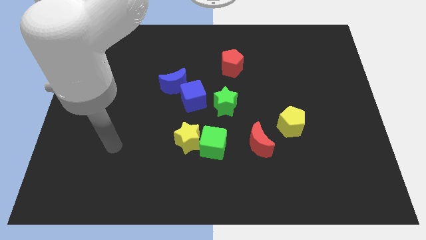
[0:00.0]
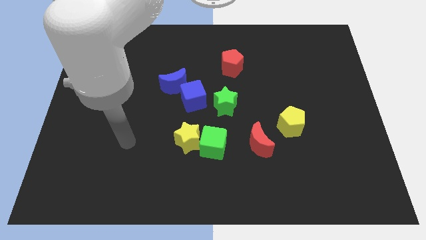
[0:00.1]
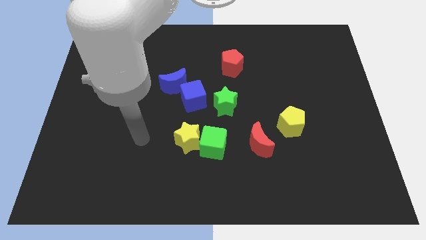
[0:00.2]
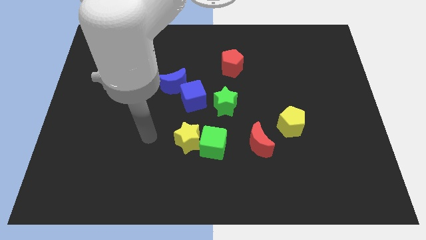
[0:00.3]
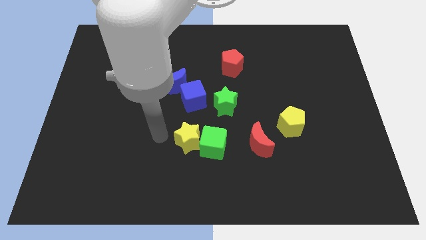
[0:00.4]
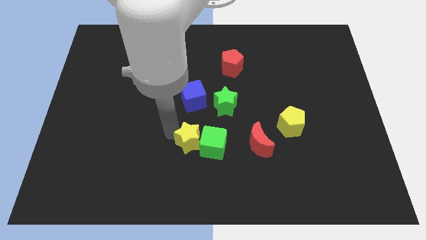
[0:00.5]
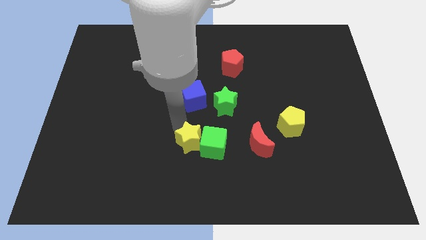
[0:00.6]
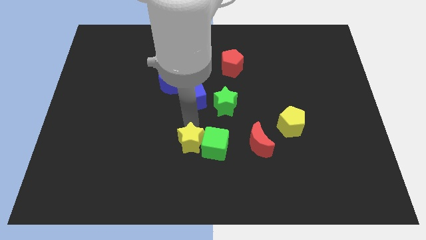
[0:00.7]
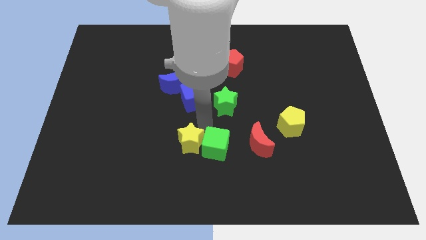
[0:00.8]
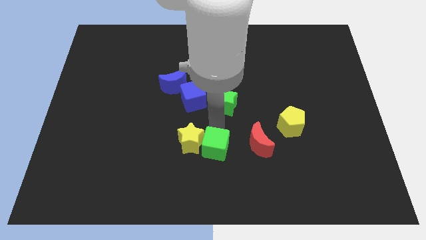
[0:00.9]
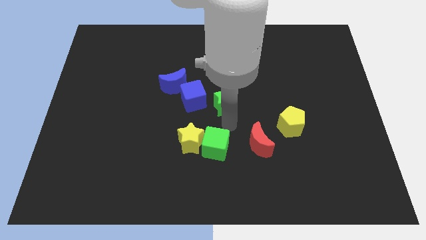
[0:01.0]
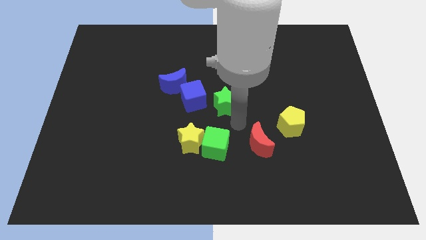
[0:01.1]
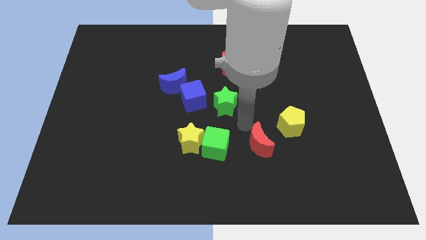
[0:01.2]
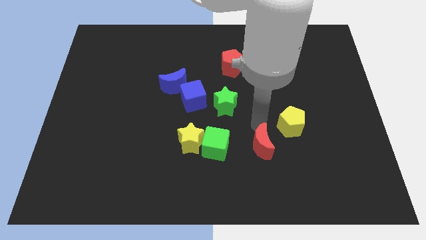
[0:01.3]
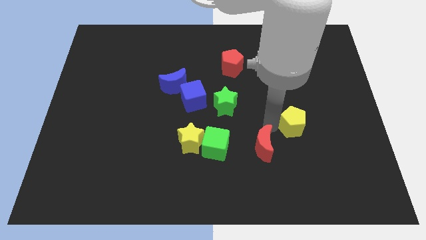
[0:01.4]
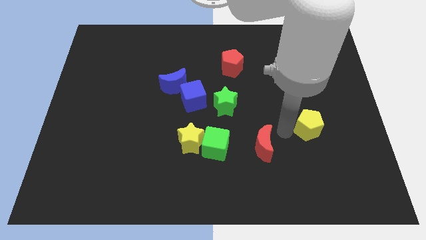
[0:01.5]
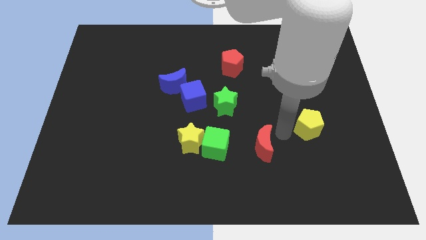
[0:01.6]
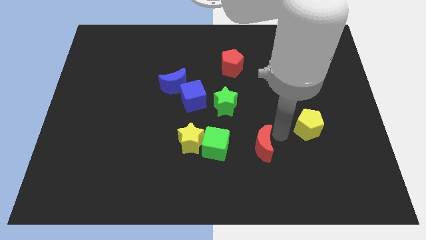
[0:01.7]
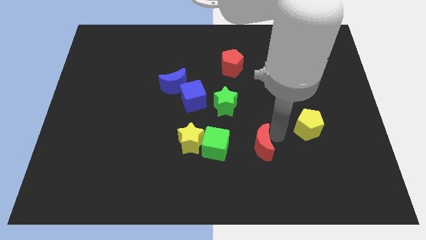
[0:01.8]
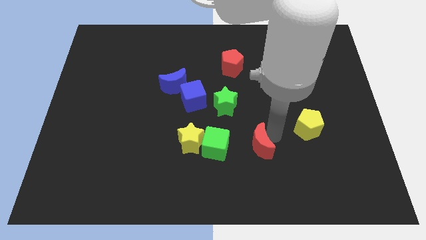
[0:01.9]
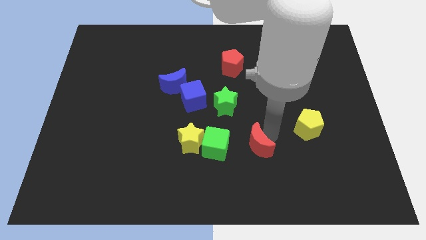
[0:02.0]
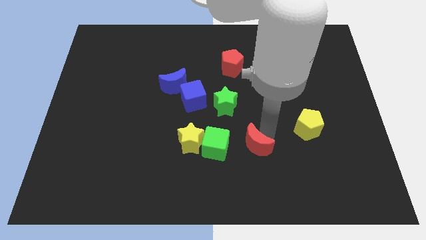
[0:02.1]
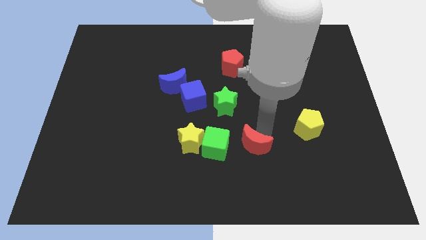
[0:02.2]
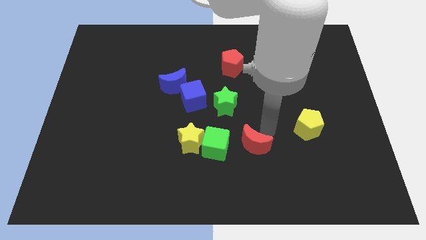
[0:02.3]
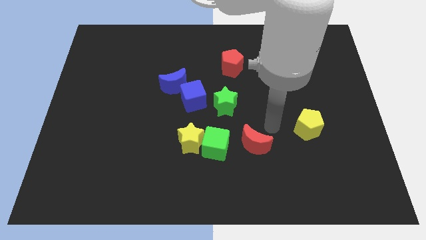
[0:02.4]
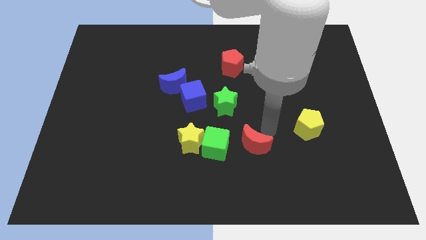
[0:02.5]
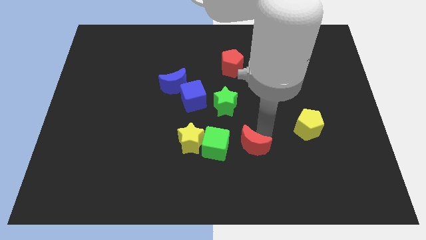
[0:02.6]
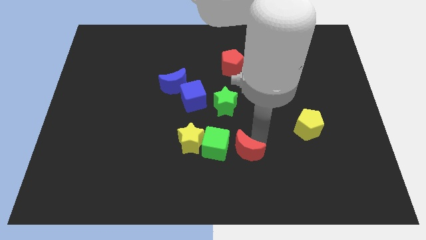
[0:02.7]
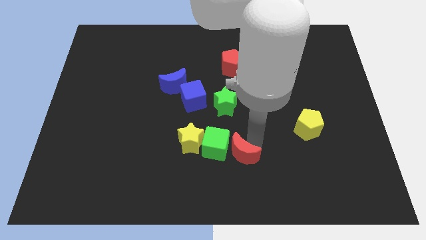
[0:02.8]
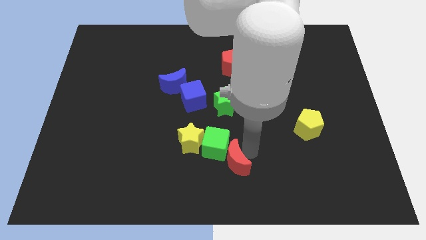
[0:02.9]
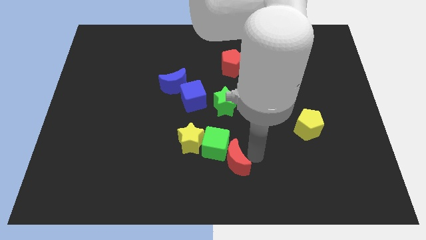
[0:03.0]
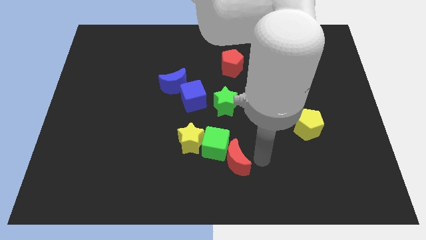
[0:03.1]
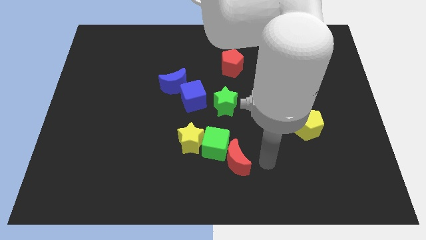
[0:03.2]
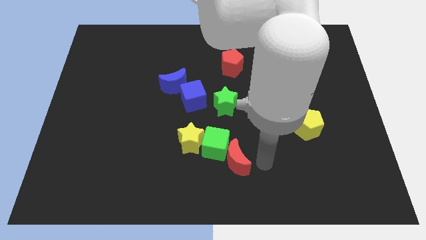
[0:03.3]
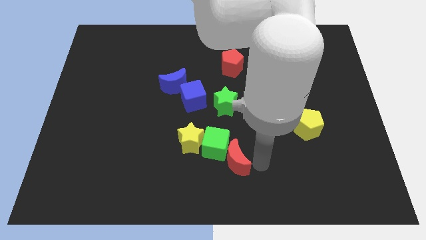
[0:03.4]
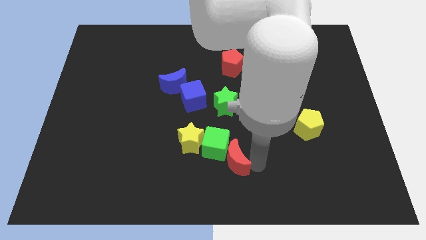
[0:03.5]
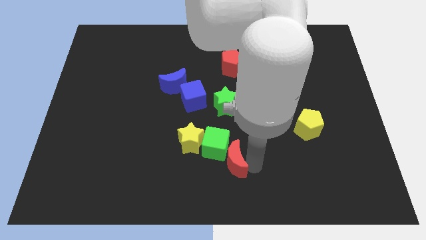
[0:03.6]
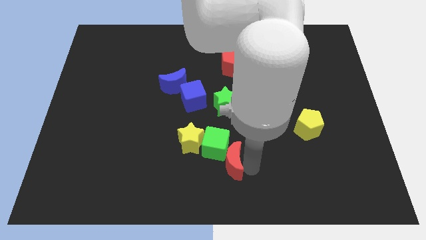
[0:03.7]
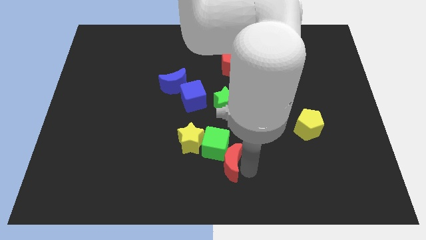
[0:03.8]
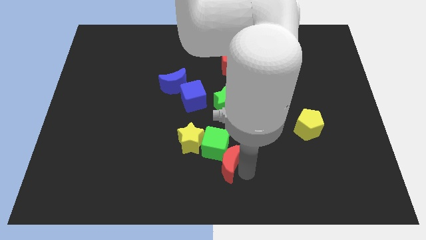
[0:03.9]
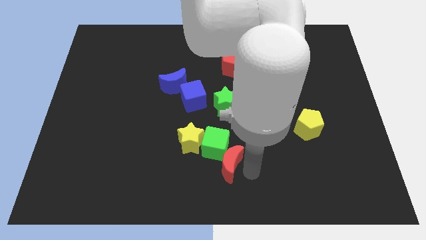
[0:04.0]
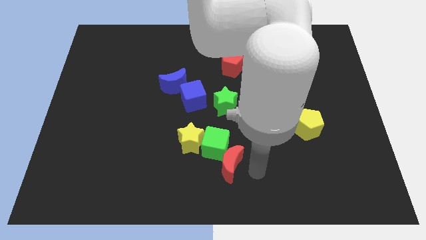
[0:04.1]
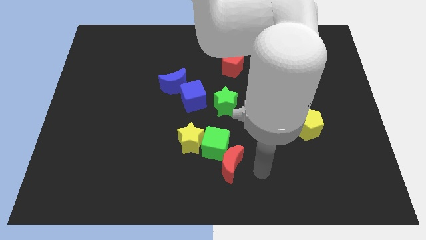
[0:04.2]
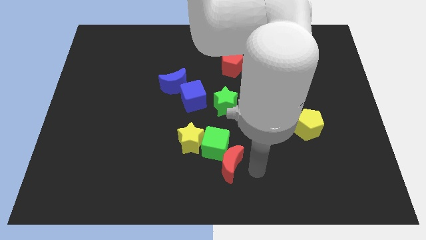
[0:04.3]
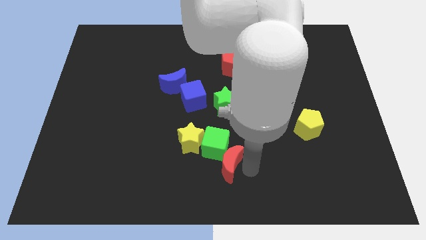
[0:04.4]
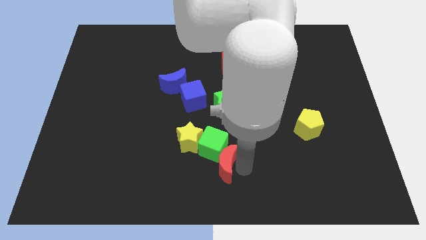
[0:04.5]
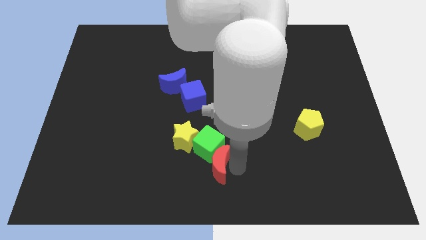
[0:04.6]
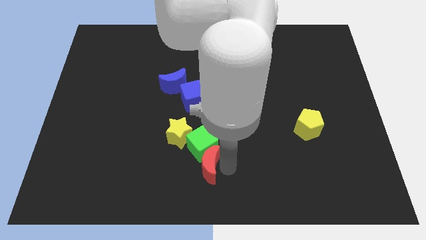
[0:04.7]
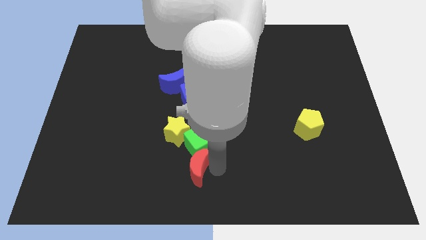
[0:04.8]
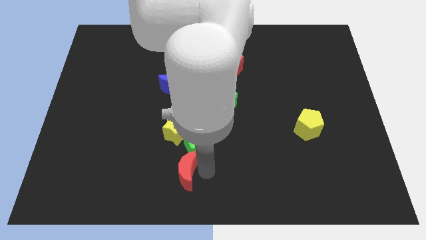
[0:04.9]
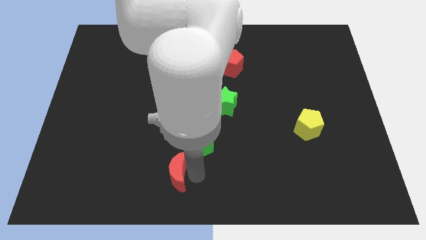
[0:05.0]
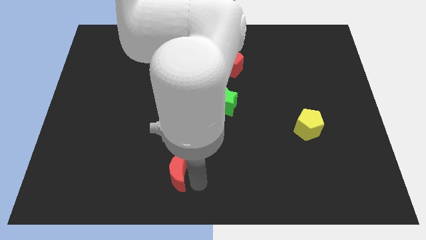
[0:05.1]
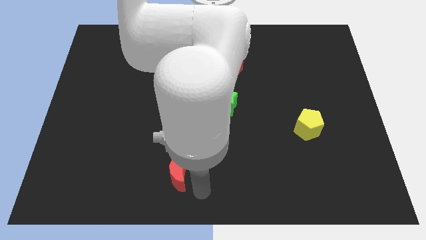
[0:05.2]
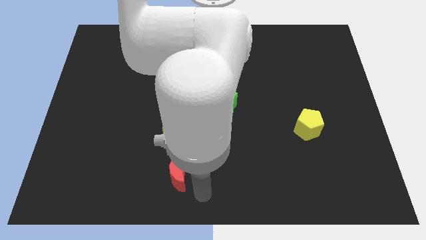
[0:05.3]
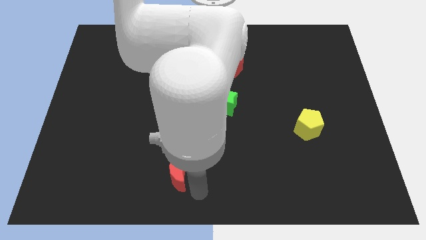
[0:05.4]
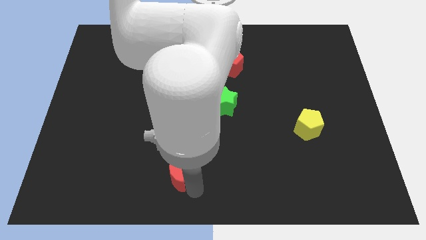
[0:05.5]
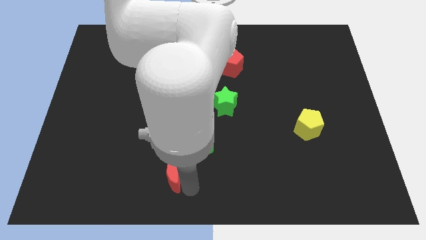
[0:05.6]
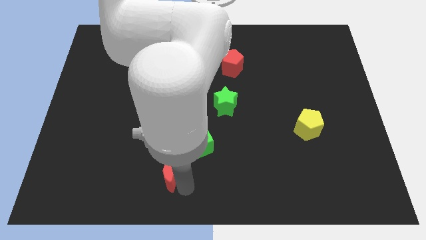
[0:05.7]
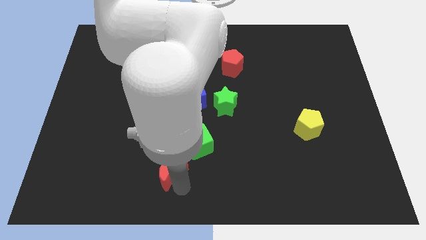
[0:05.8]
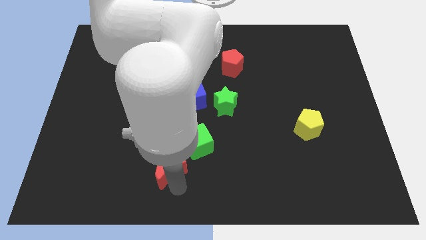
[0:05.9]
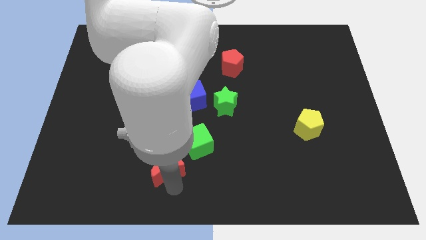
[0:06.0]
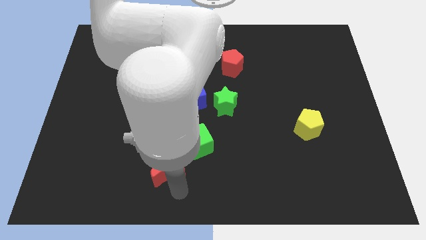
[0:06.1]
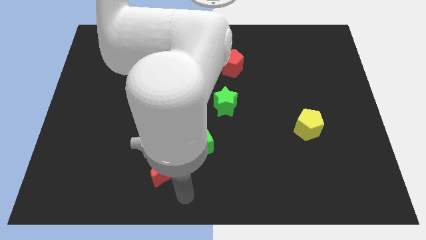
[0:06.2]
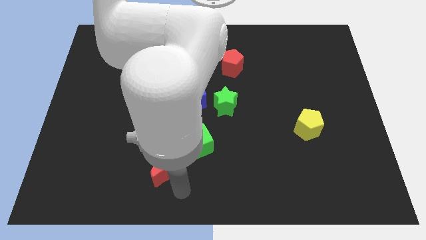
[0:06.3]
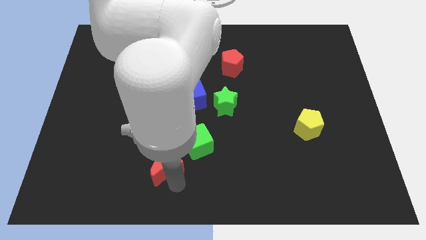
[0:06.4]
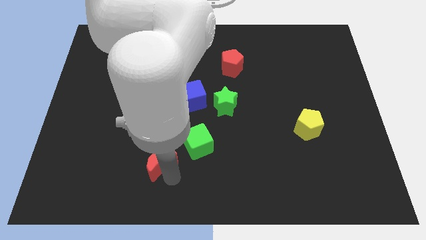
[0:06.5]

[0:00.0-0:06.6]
slide the red moon to the bottom left side of the yellow star

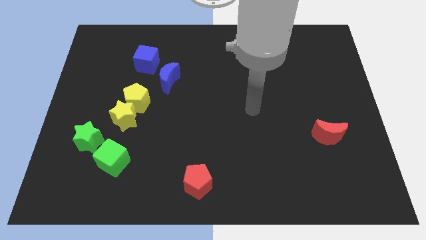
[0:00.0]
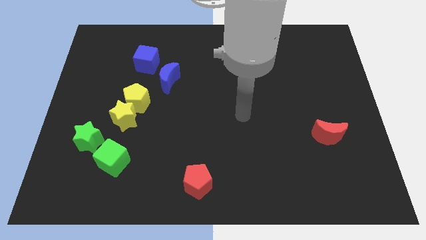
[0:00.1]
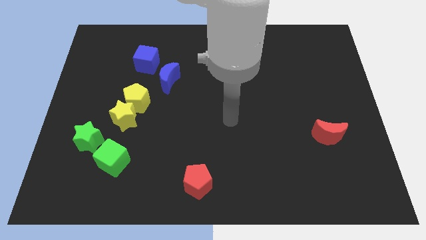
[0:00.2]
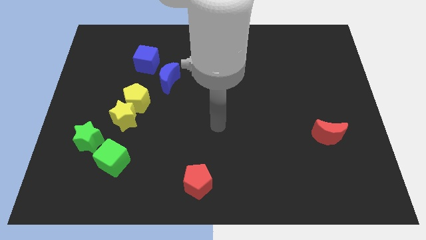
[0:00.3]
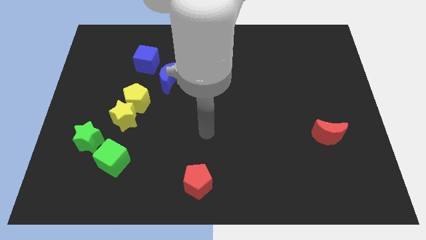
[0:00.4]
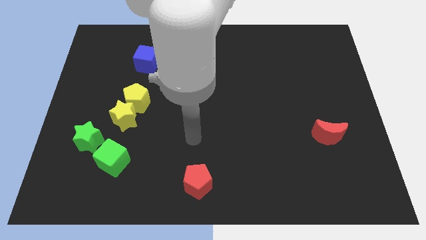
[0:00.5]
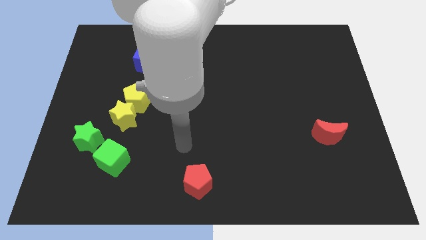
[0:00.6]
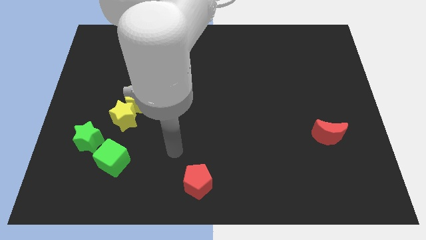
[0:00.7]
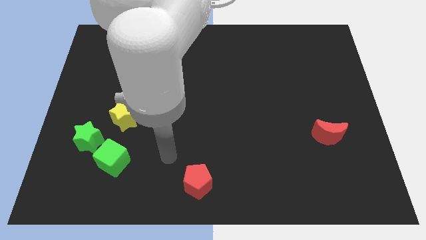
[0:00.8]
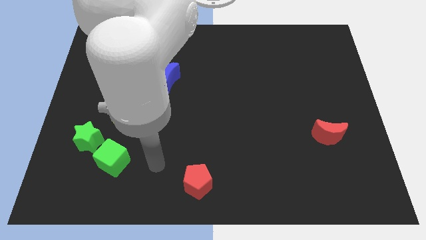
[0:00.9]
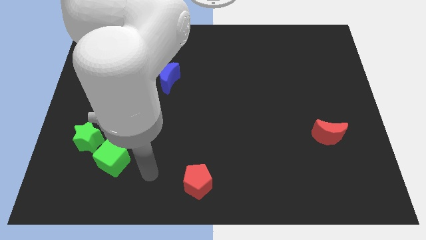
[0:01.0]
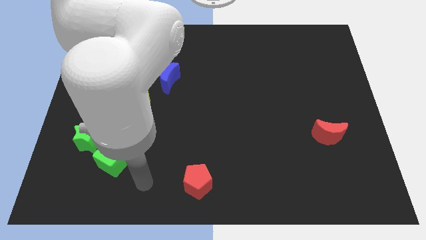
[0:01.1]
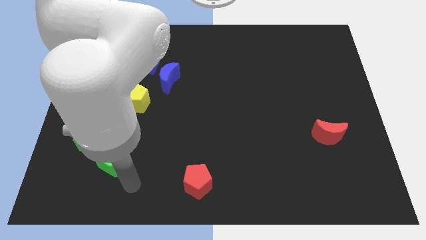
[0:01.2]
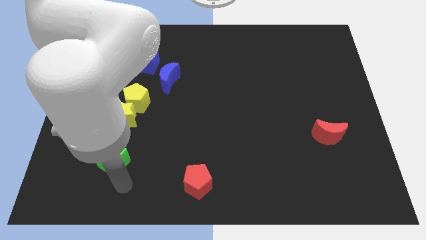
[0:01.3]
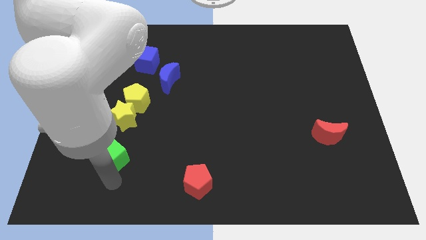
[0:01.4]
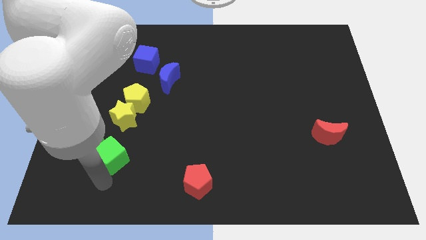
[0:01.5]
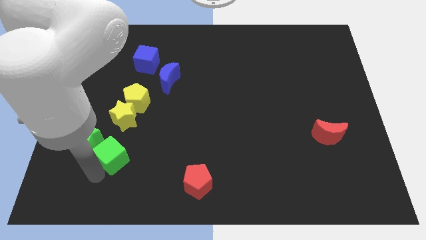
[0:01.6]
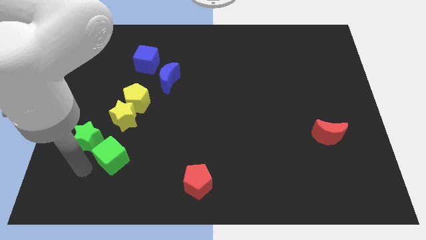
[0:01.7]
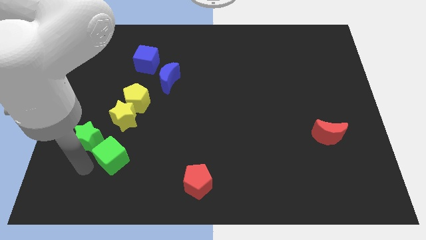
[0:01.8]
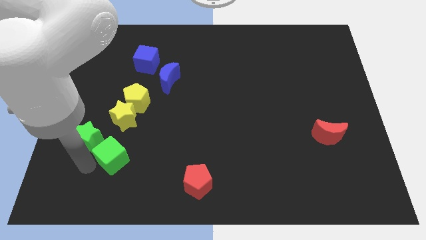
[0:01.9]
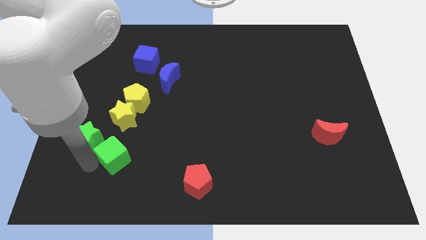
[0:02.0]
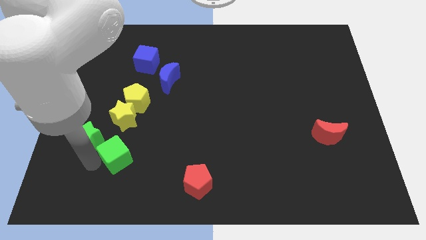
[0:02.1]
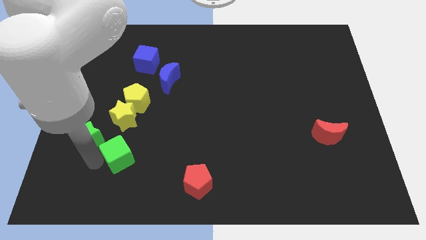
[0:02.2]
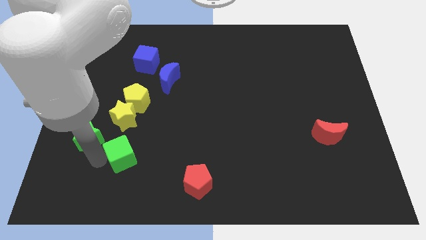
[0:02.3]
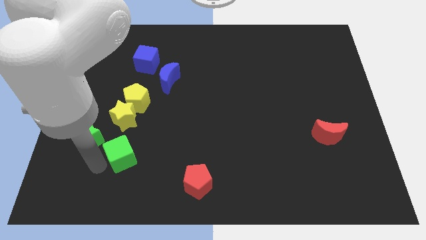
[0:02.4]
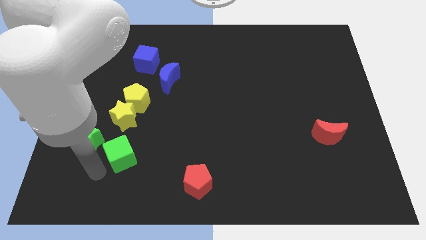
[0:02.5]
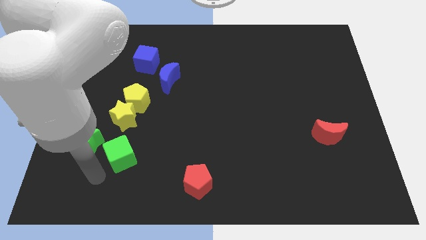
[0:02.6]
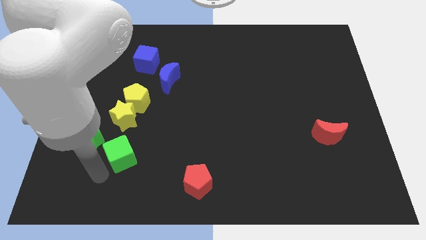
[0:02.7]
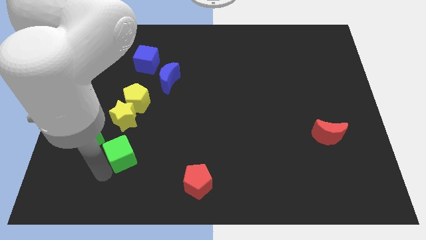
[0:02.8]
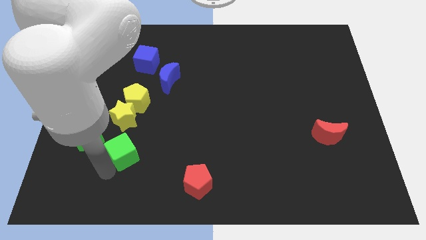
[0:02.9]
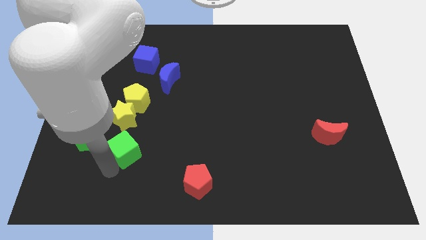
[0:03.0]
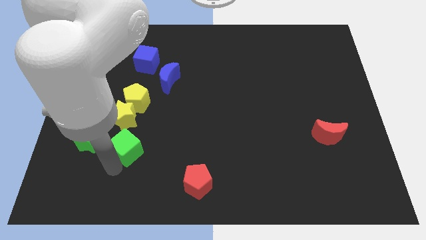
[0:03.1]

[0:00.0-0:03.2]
put the green cube to the bottom right side of the yellow star
